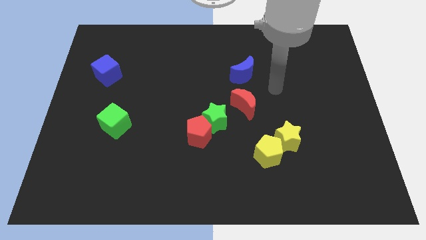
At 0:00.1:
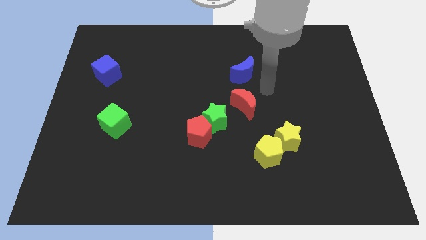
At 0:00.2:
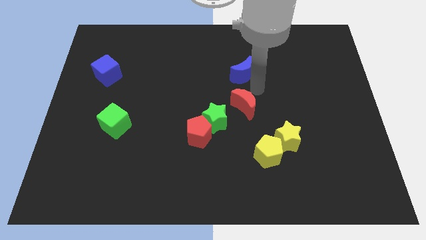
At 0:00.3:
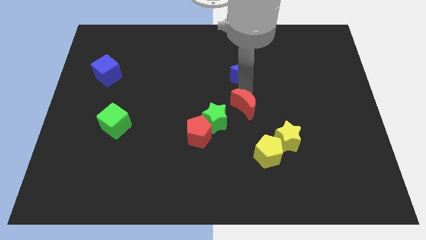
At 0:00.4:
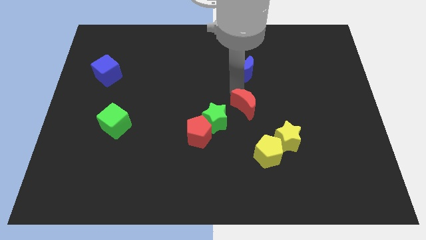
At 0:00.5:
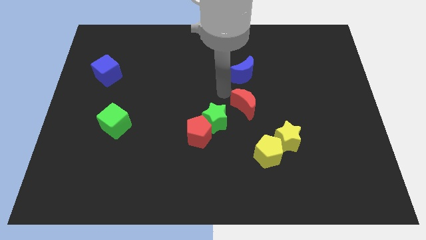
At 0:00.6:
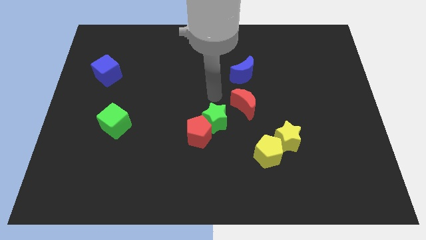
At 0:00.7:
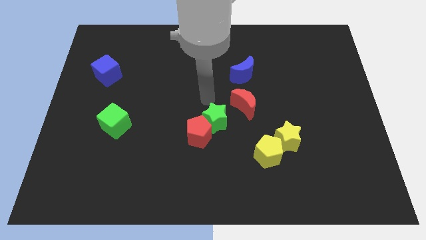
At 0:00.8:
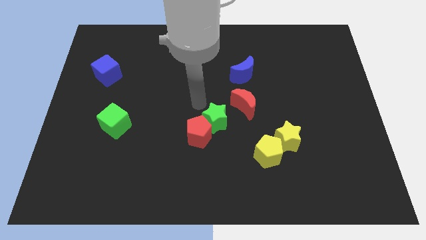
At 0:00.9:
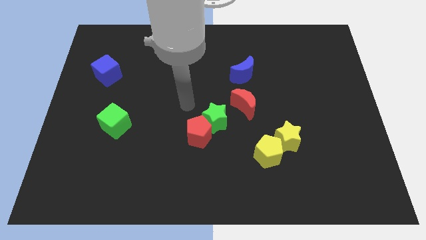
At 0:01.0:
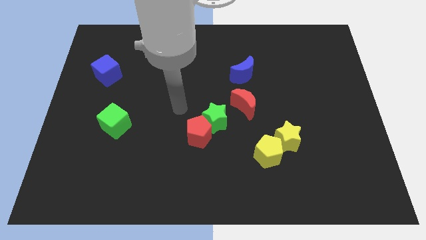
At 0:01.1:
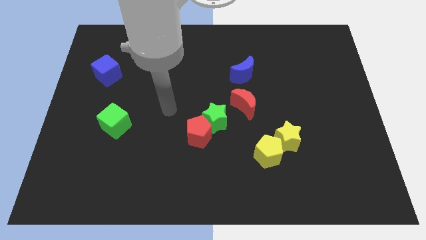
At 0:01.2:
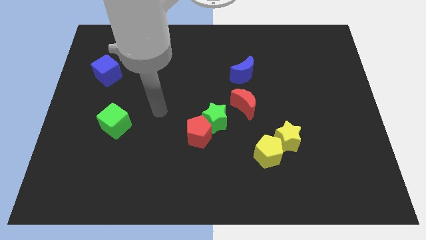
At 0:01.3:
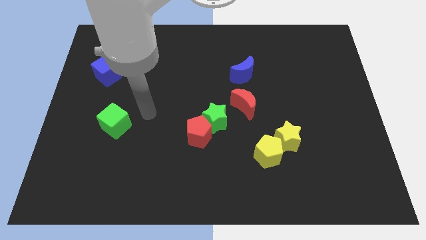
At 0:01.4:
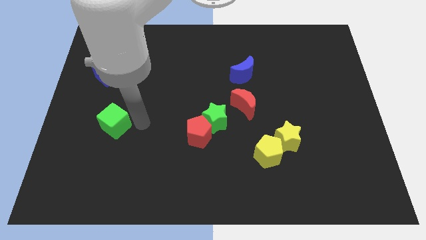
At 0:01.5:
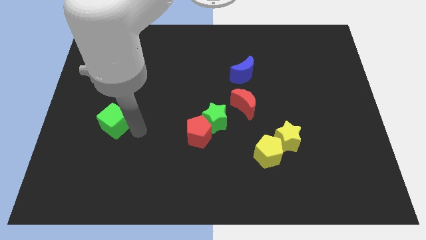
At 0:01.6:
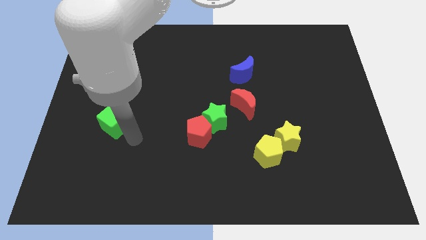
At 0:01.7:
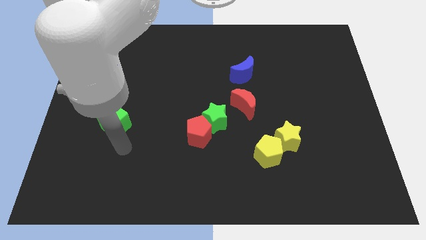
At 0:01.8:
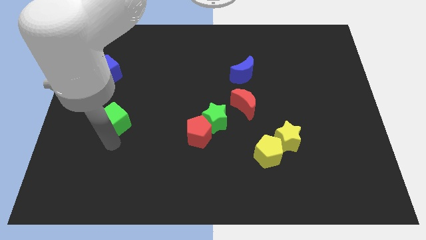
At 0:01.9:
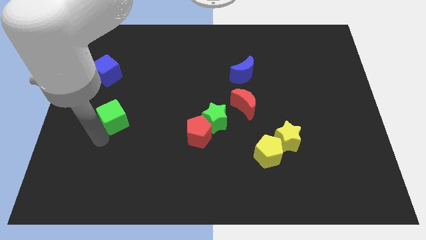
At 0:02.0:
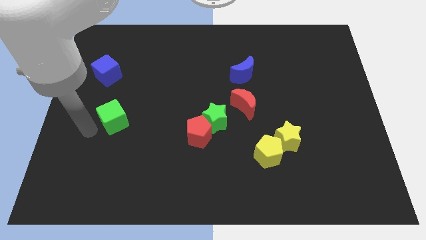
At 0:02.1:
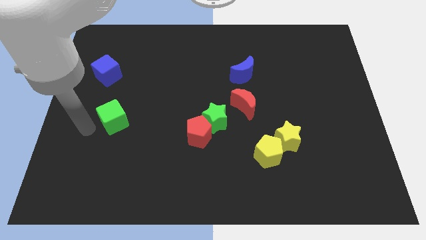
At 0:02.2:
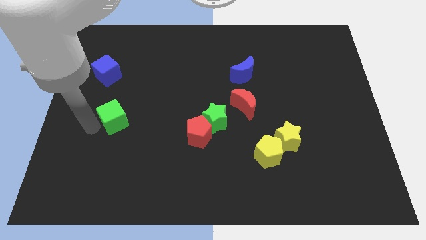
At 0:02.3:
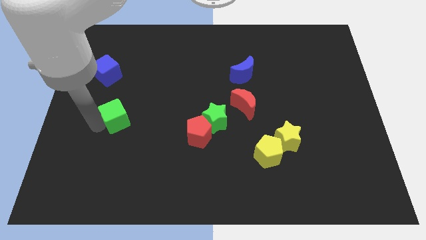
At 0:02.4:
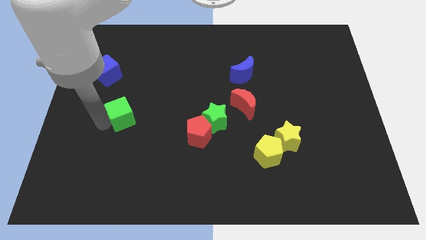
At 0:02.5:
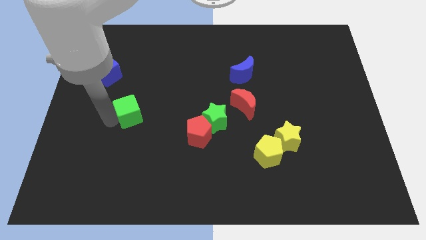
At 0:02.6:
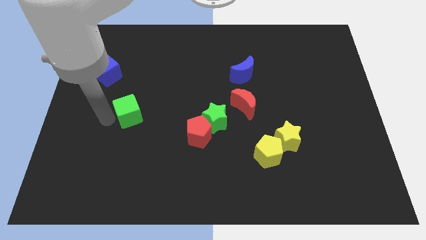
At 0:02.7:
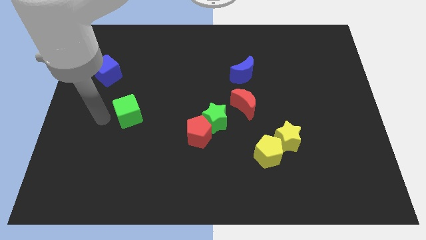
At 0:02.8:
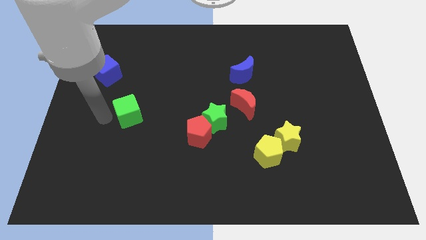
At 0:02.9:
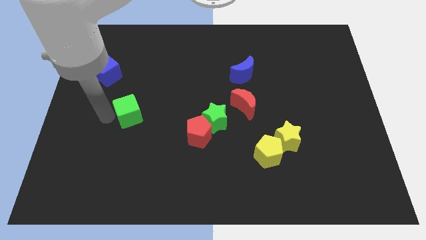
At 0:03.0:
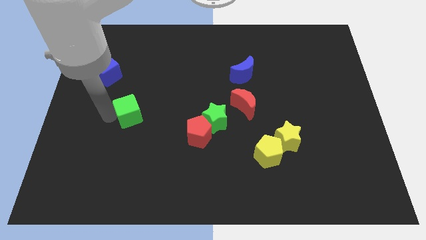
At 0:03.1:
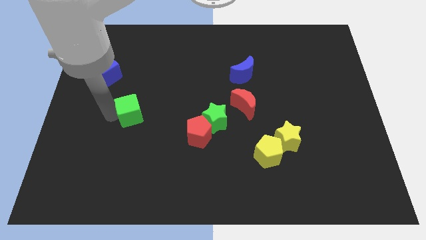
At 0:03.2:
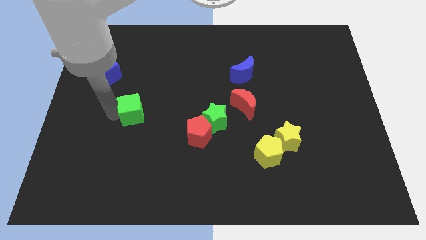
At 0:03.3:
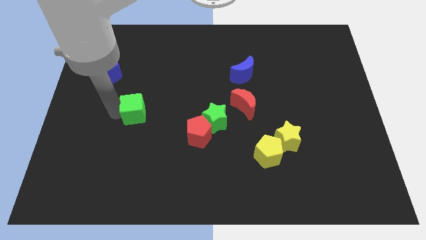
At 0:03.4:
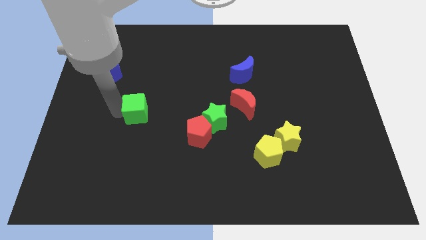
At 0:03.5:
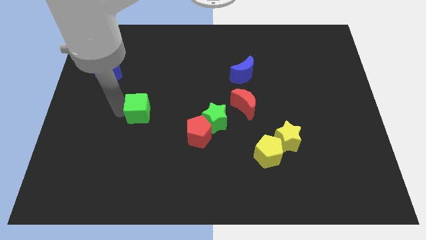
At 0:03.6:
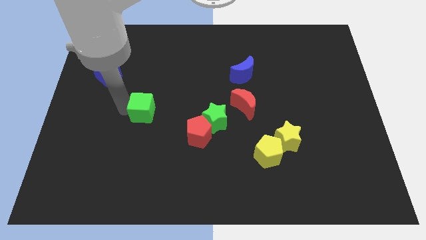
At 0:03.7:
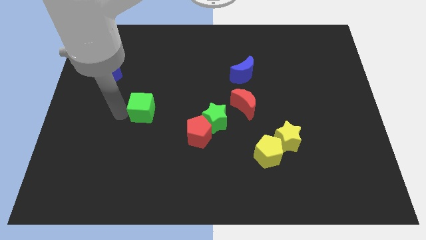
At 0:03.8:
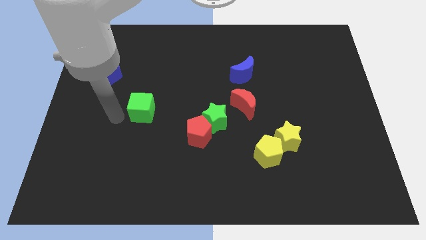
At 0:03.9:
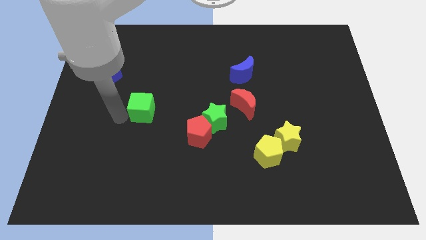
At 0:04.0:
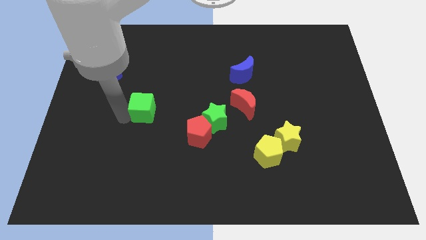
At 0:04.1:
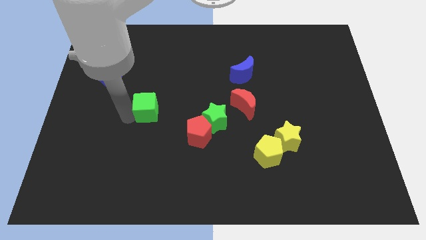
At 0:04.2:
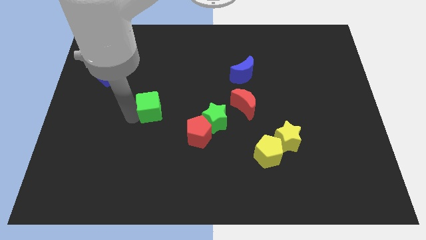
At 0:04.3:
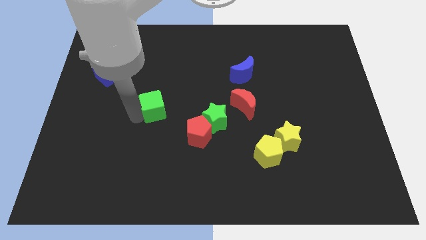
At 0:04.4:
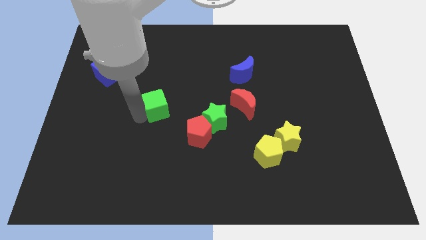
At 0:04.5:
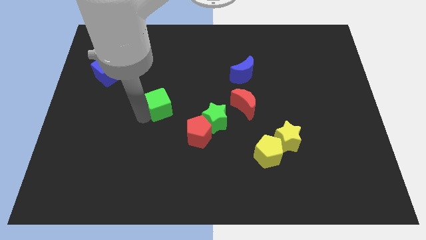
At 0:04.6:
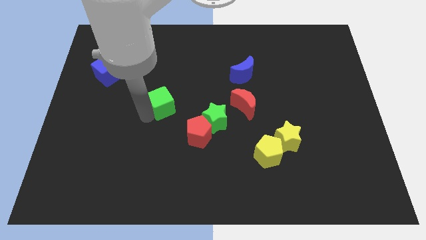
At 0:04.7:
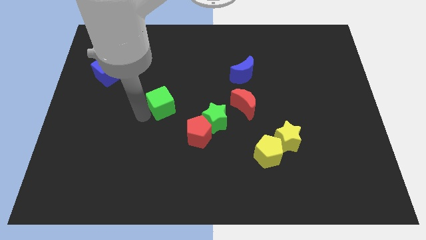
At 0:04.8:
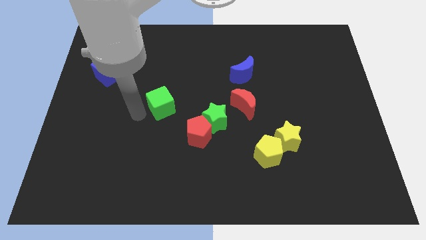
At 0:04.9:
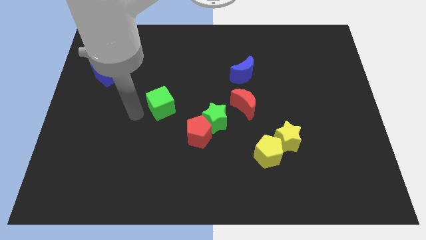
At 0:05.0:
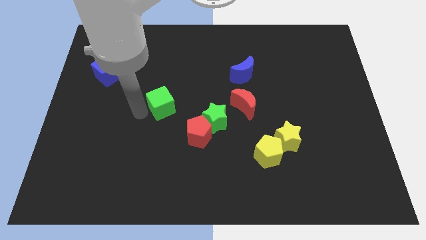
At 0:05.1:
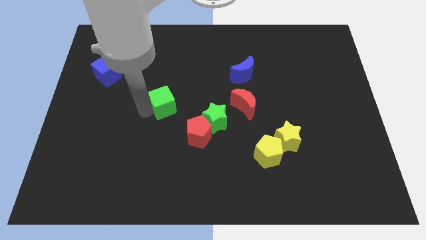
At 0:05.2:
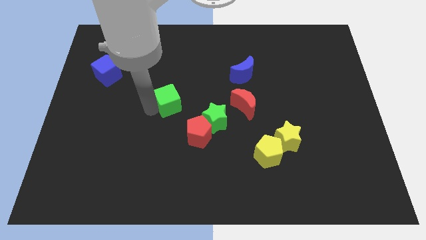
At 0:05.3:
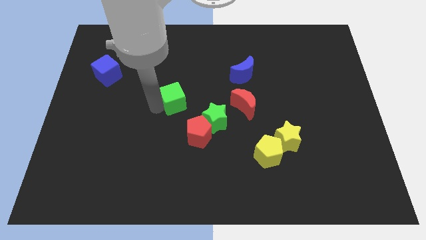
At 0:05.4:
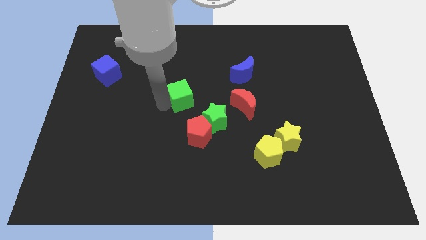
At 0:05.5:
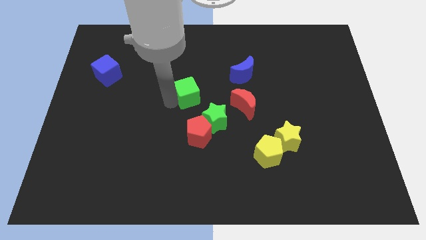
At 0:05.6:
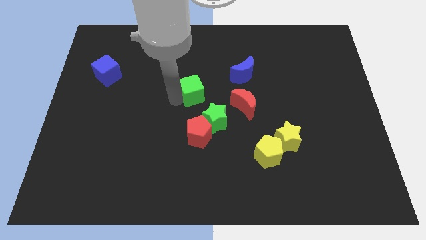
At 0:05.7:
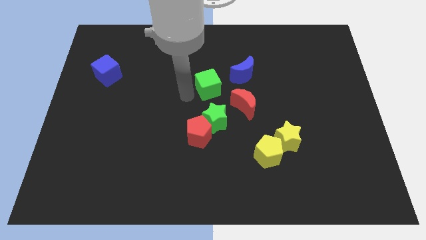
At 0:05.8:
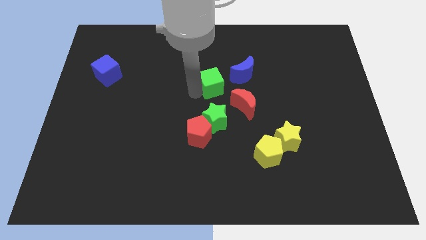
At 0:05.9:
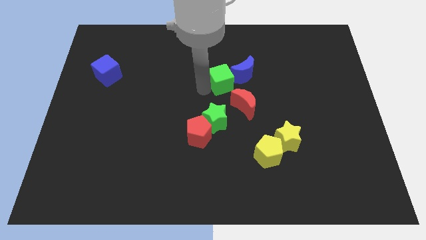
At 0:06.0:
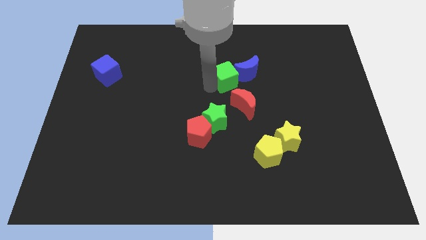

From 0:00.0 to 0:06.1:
put the green cube towards the blue moon
